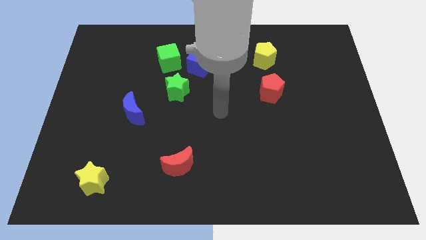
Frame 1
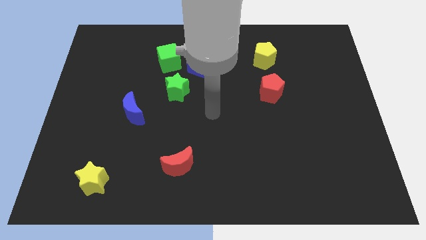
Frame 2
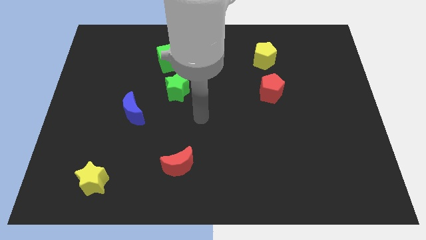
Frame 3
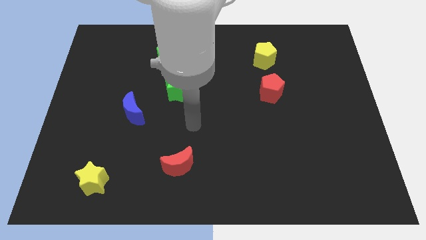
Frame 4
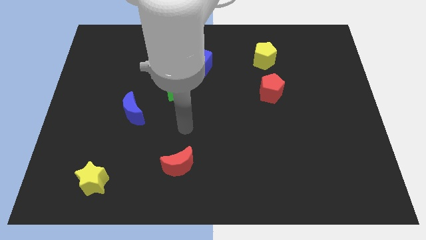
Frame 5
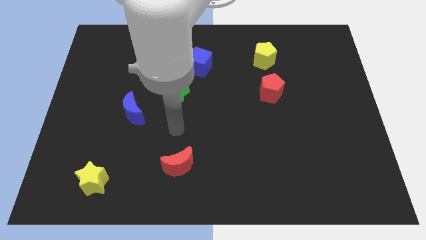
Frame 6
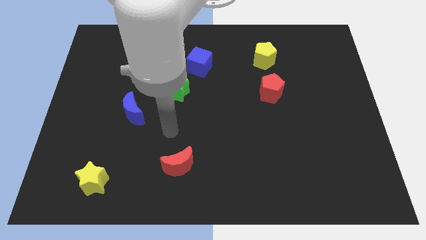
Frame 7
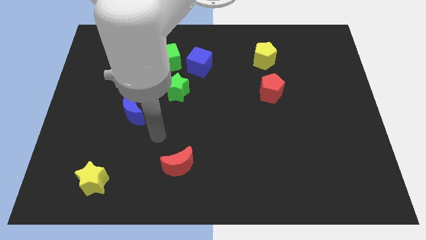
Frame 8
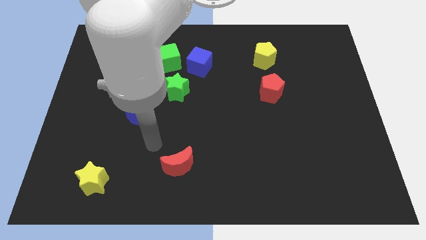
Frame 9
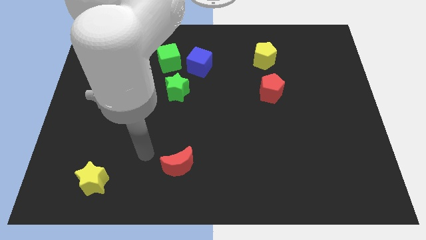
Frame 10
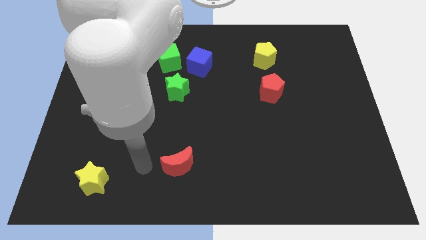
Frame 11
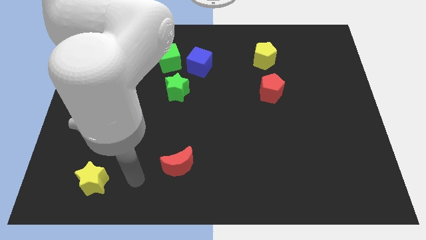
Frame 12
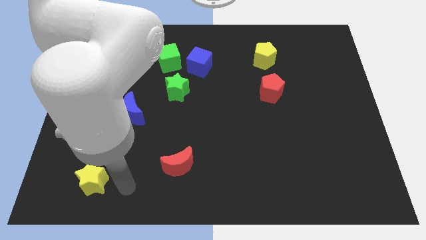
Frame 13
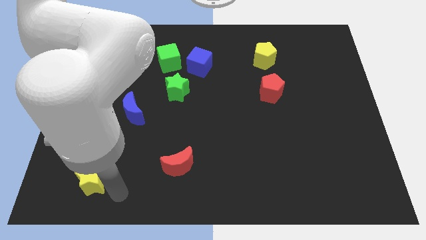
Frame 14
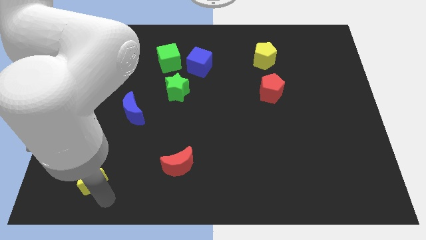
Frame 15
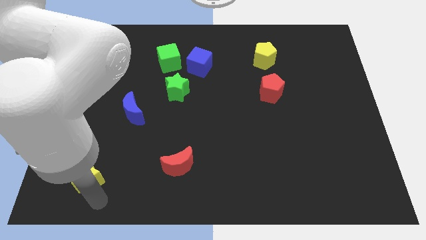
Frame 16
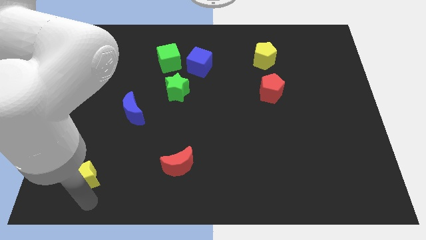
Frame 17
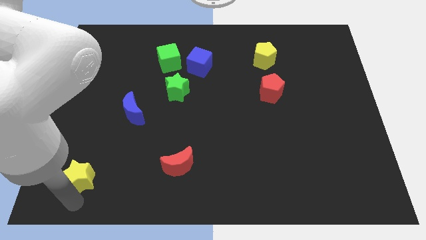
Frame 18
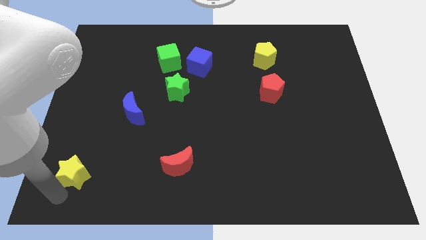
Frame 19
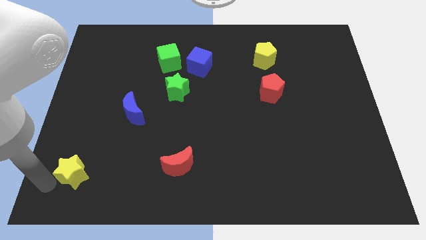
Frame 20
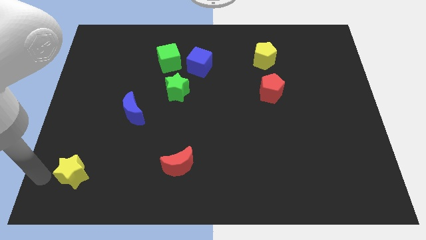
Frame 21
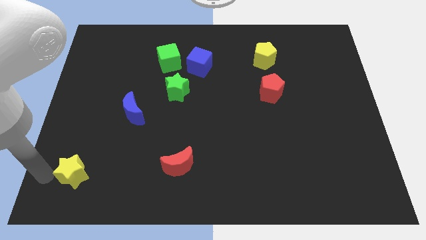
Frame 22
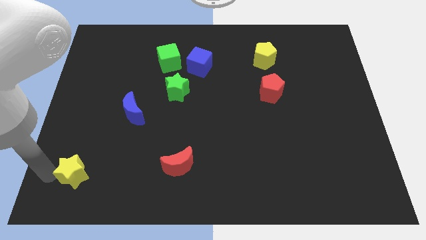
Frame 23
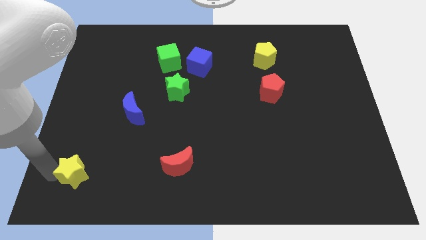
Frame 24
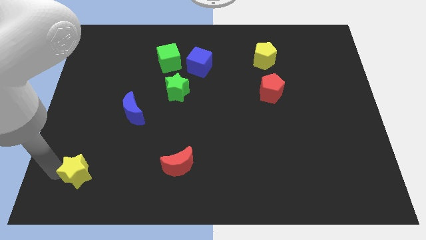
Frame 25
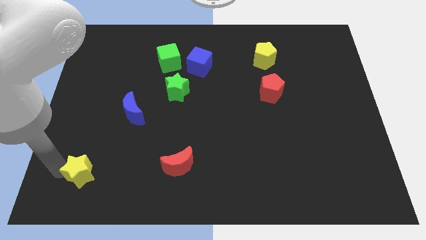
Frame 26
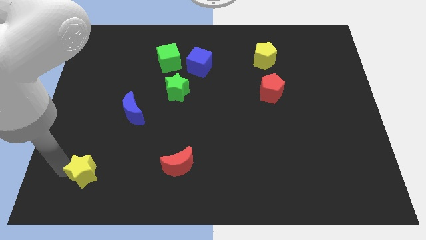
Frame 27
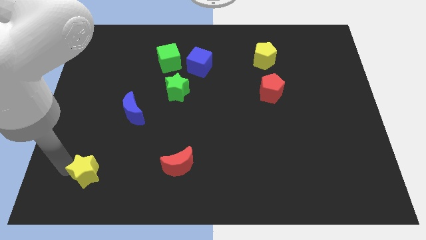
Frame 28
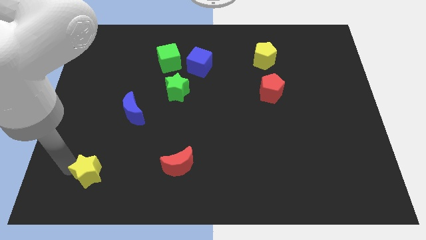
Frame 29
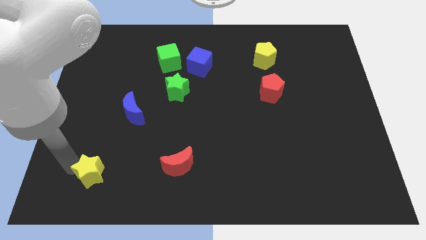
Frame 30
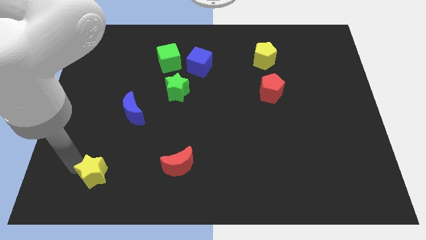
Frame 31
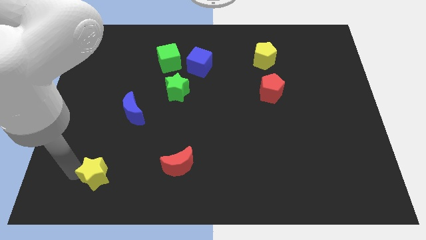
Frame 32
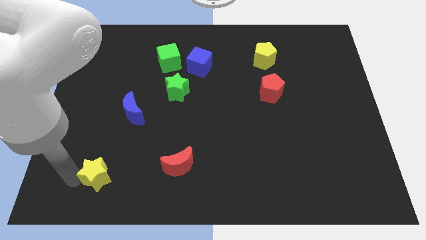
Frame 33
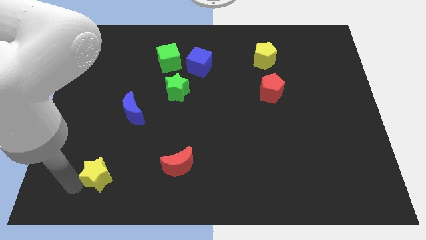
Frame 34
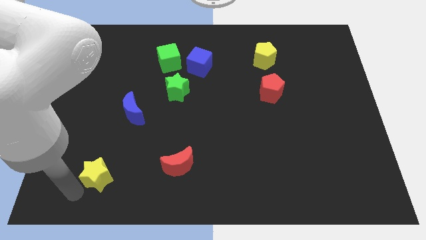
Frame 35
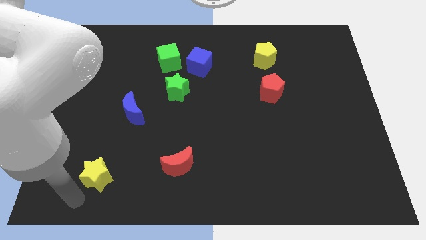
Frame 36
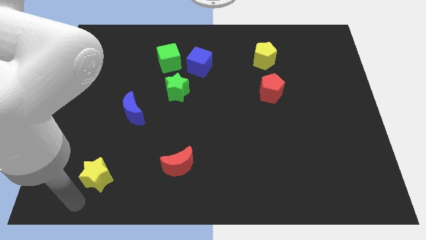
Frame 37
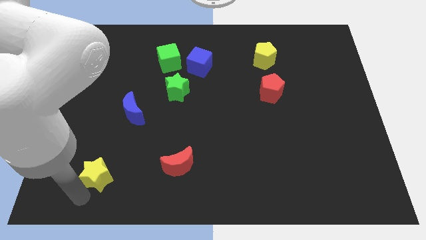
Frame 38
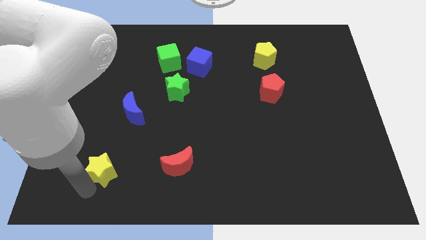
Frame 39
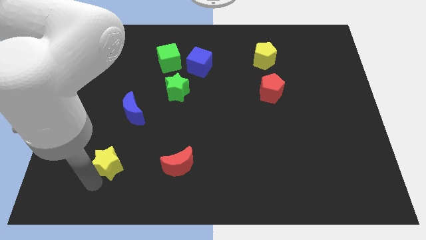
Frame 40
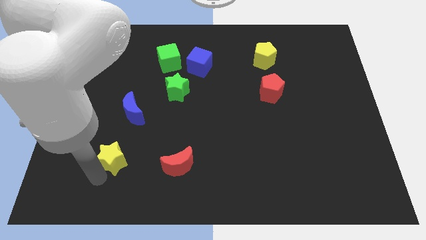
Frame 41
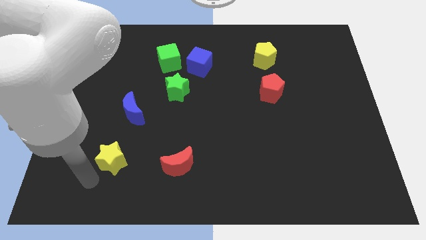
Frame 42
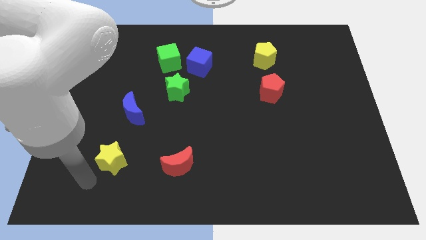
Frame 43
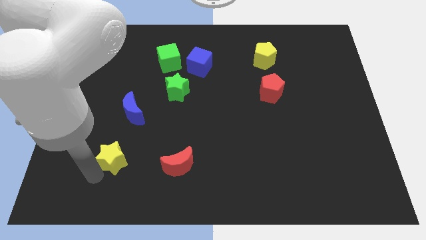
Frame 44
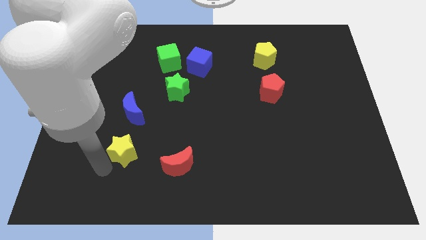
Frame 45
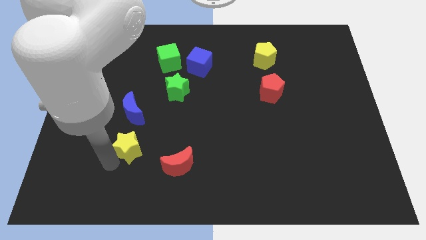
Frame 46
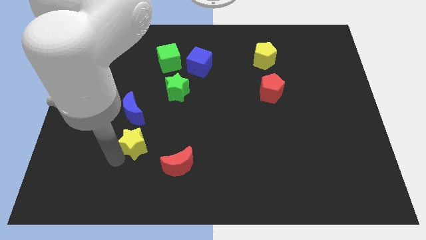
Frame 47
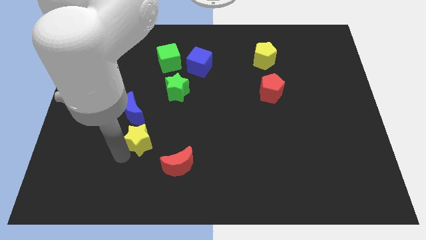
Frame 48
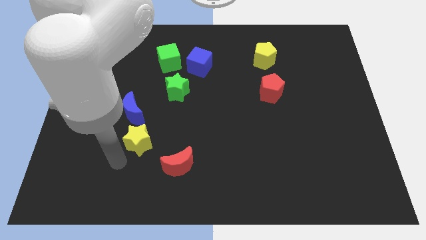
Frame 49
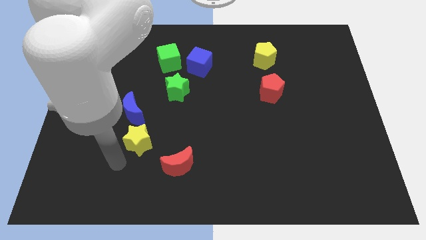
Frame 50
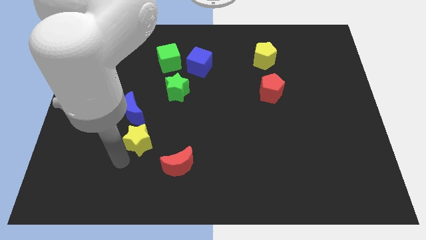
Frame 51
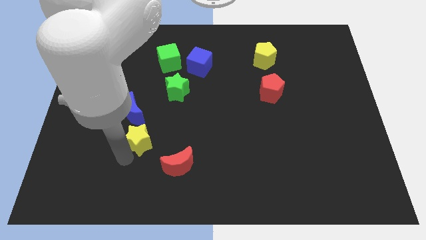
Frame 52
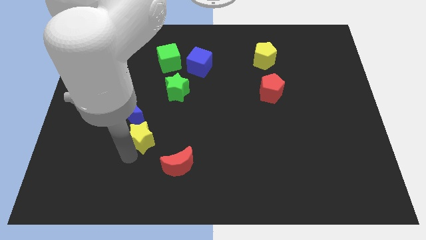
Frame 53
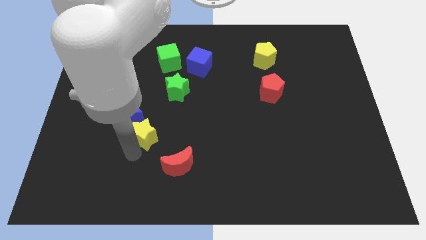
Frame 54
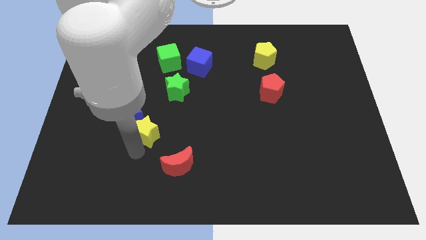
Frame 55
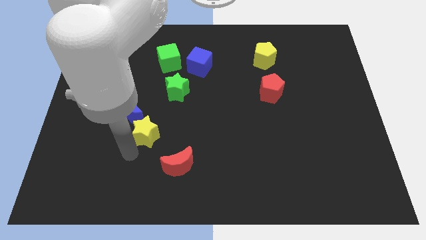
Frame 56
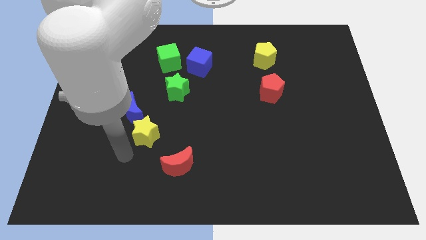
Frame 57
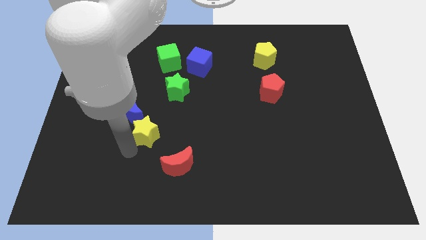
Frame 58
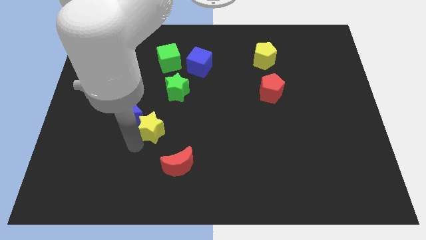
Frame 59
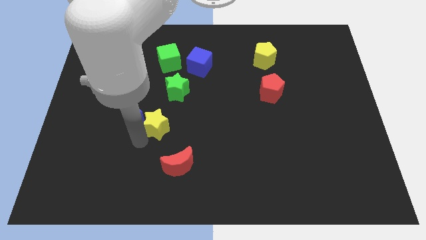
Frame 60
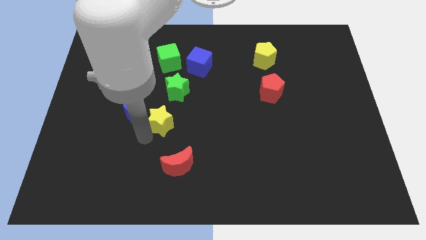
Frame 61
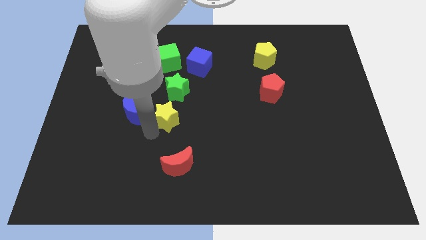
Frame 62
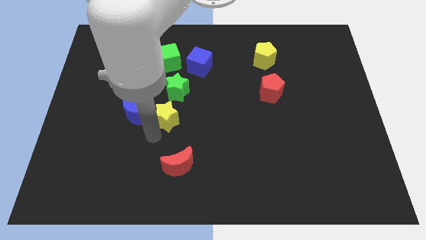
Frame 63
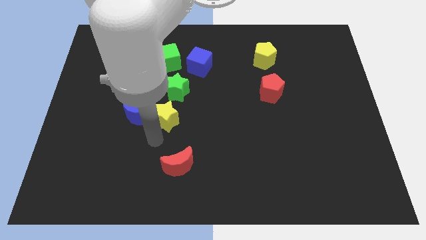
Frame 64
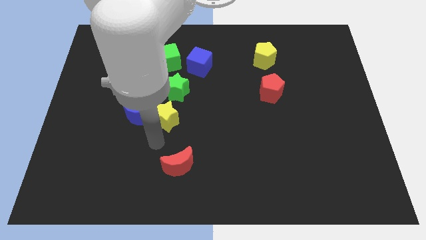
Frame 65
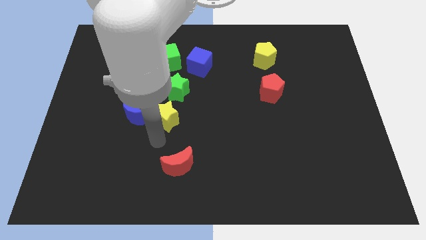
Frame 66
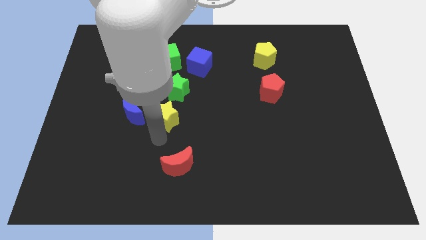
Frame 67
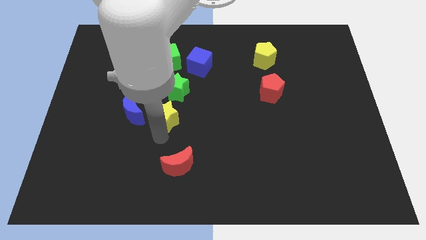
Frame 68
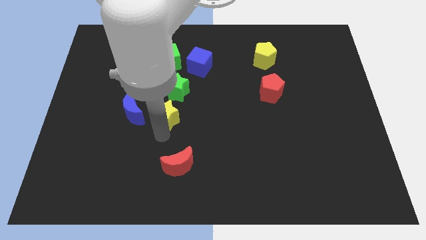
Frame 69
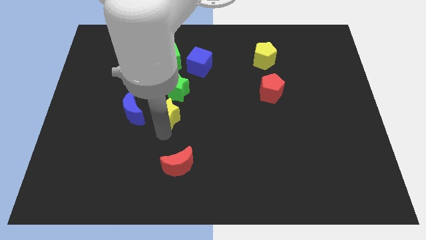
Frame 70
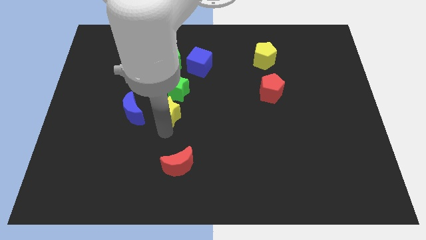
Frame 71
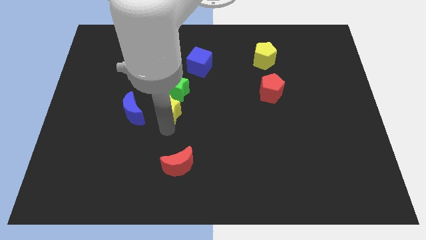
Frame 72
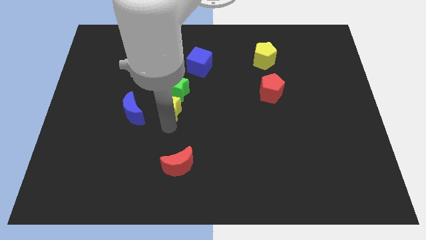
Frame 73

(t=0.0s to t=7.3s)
push the yellow star close to the green star

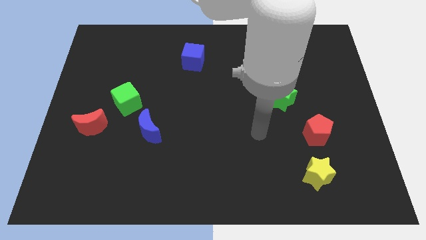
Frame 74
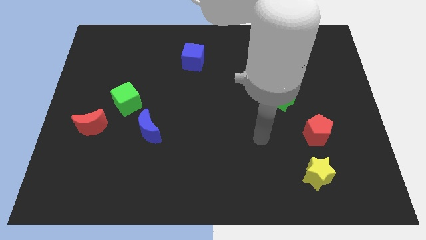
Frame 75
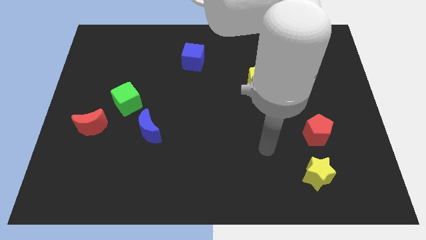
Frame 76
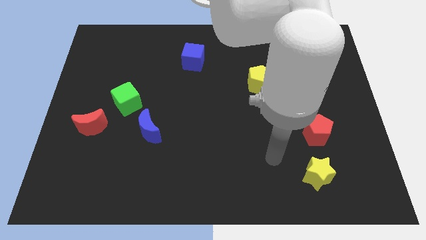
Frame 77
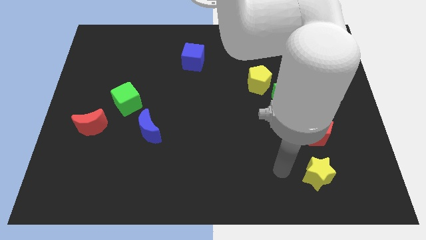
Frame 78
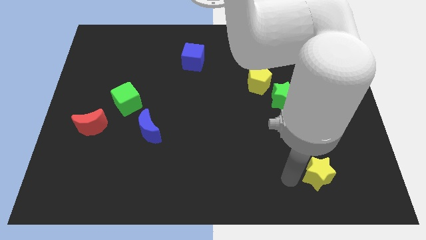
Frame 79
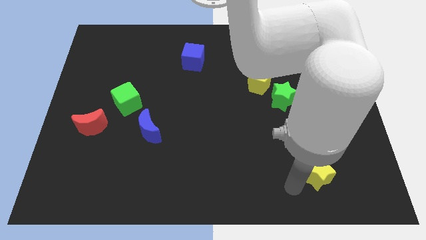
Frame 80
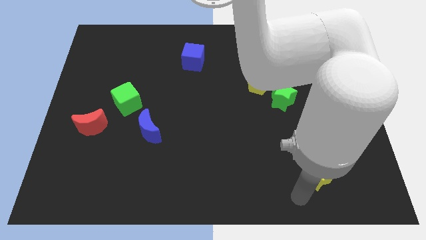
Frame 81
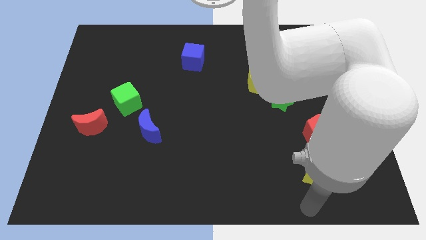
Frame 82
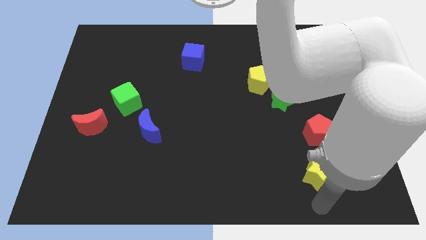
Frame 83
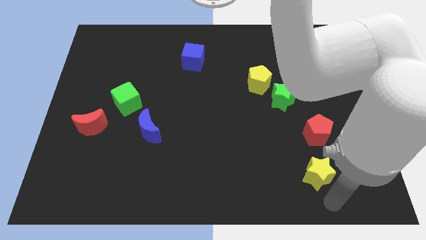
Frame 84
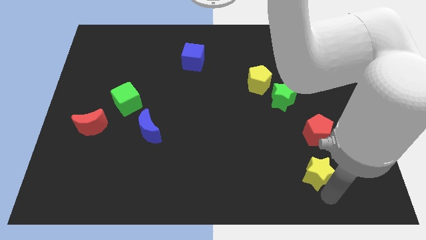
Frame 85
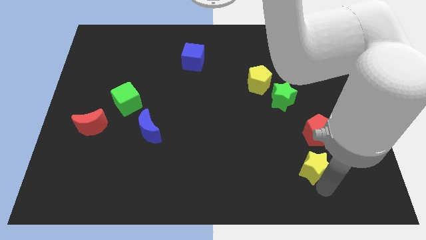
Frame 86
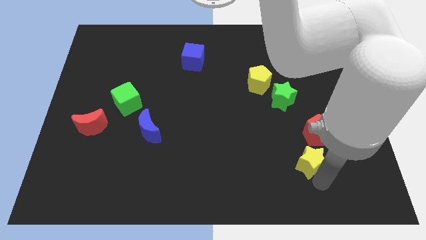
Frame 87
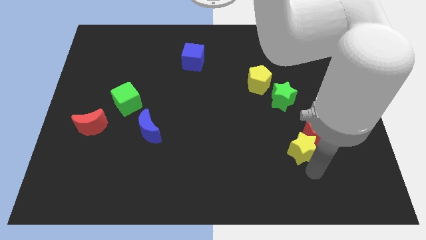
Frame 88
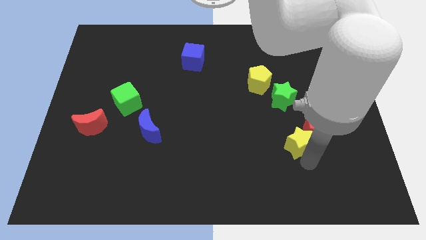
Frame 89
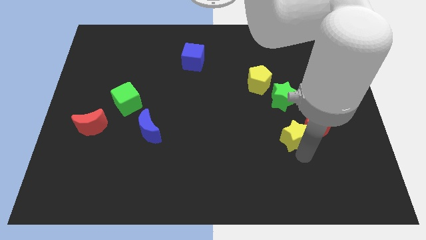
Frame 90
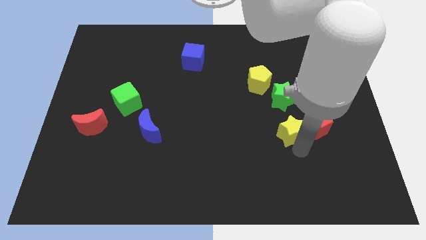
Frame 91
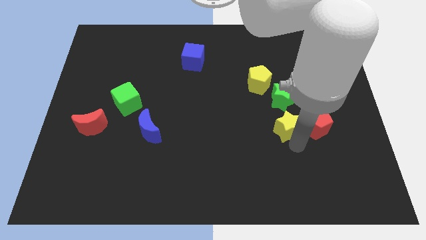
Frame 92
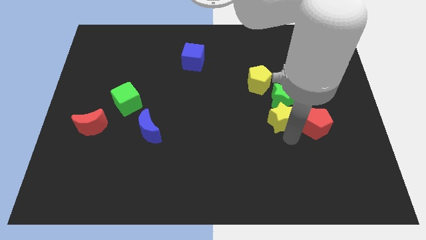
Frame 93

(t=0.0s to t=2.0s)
move the yellow star towards the green star
